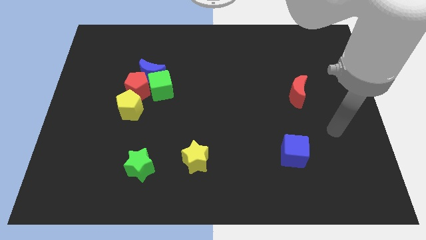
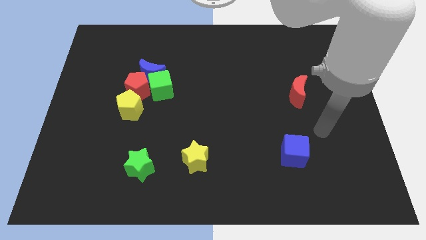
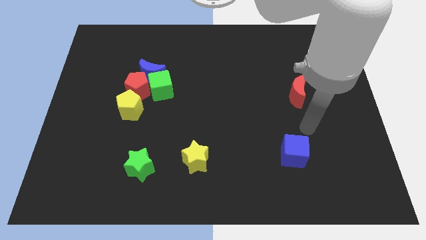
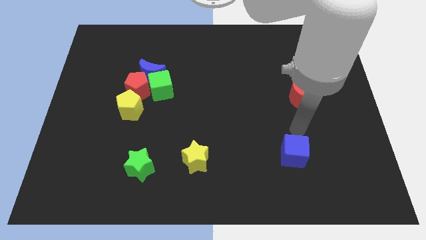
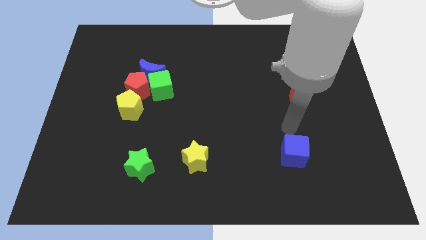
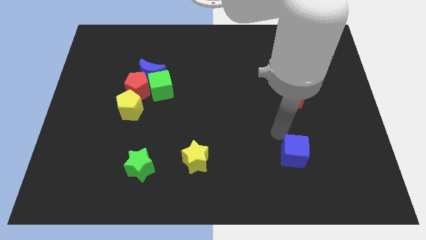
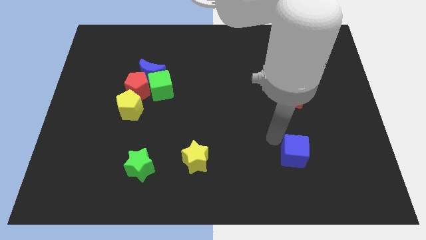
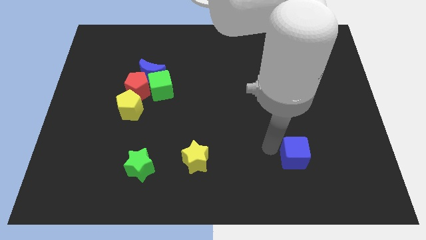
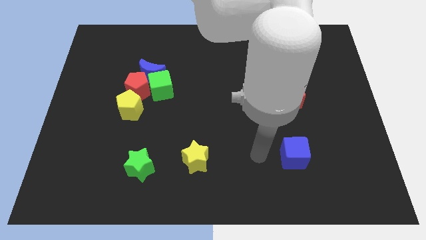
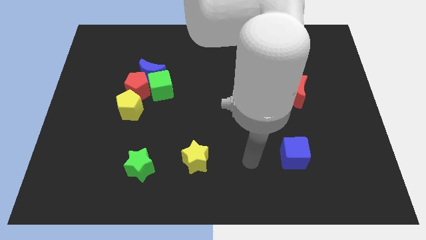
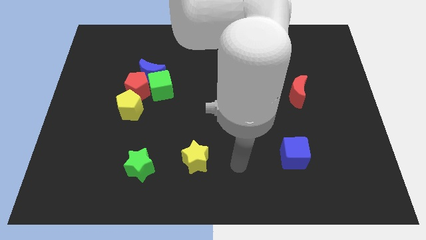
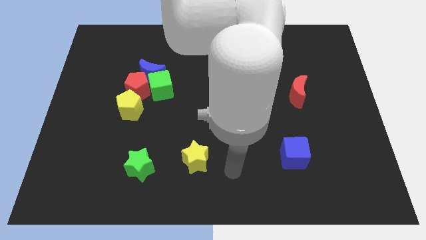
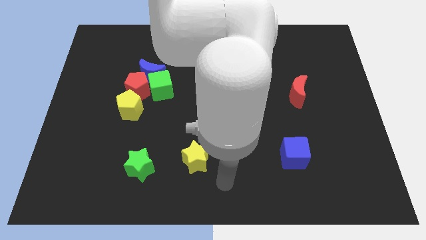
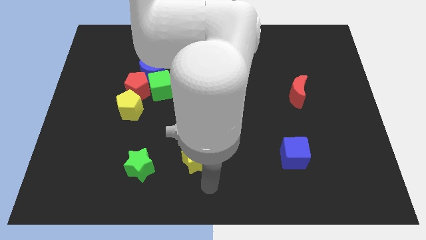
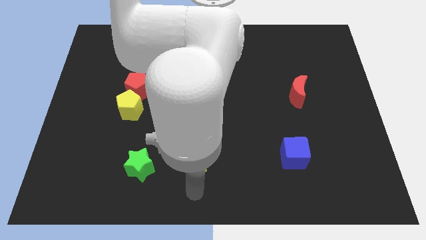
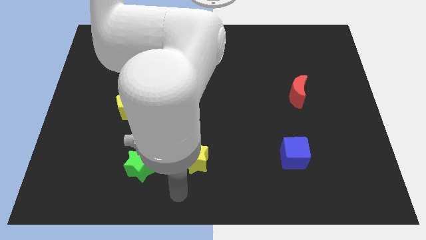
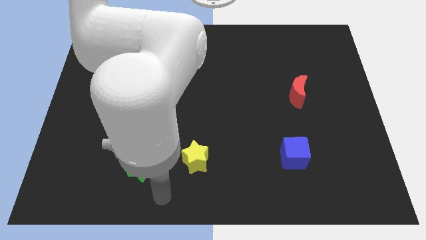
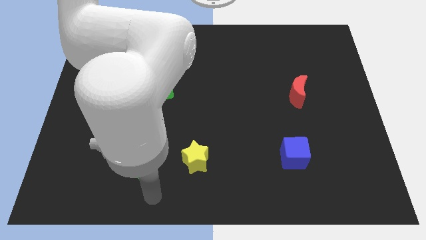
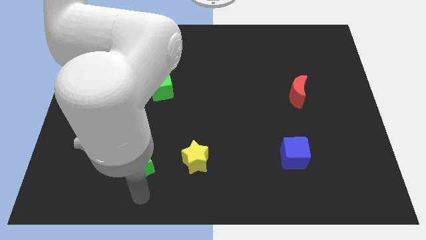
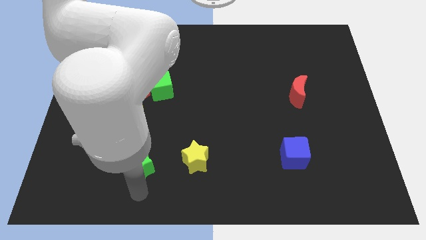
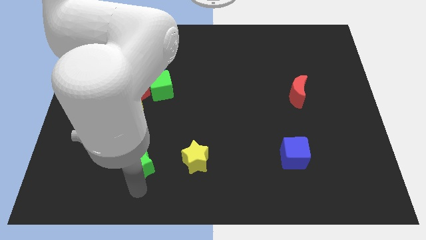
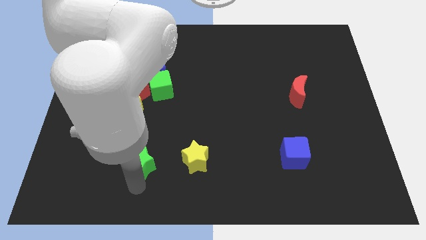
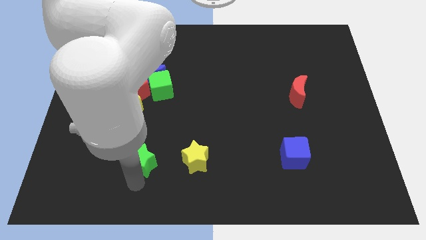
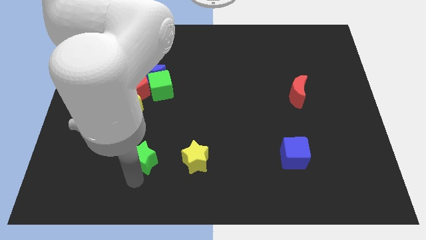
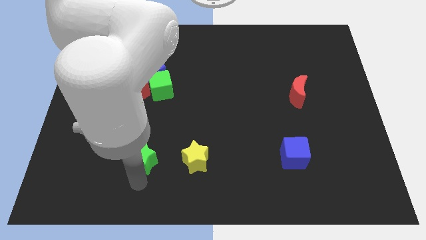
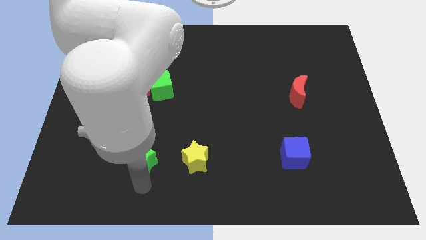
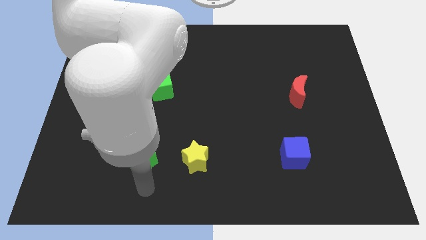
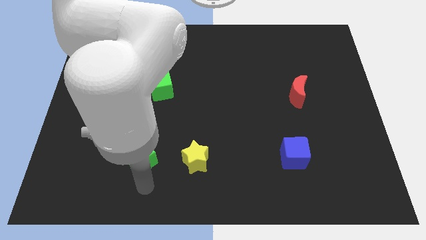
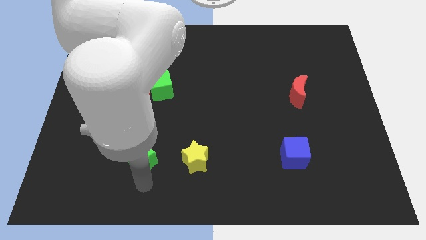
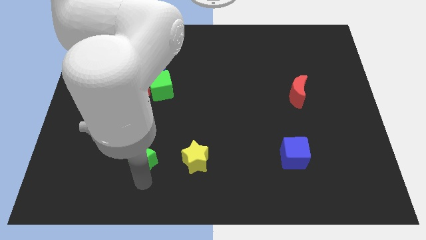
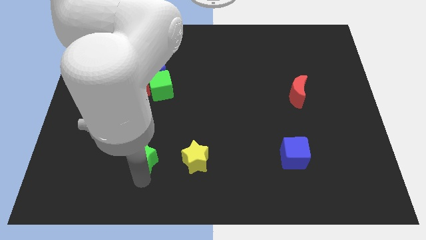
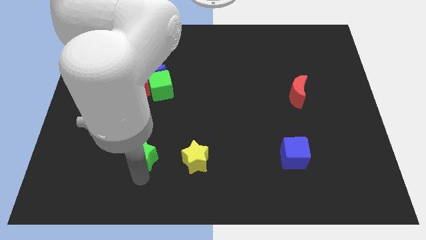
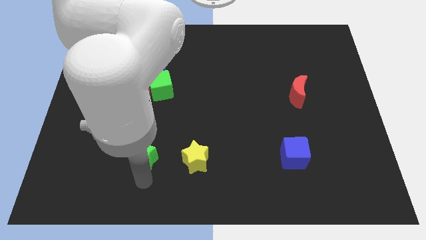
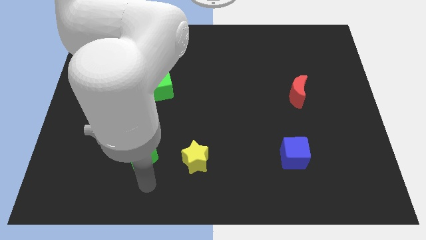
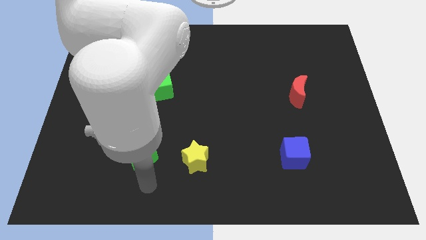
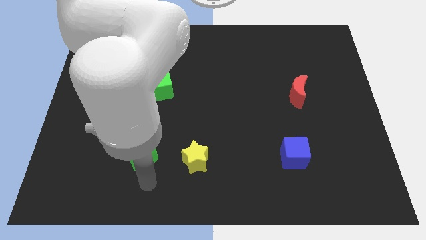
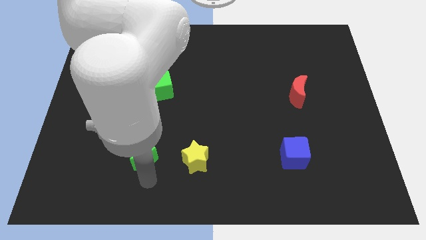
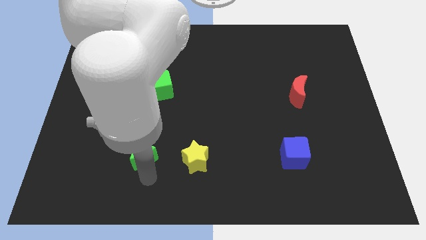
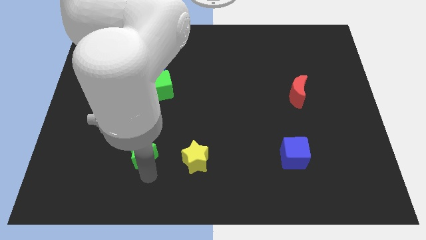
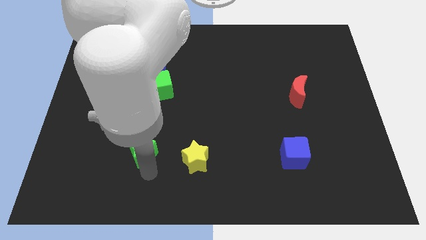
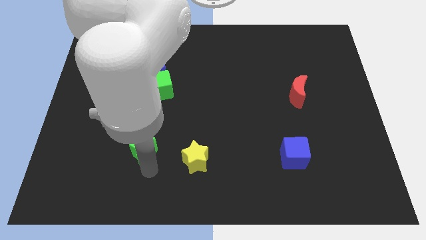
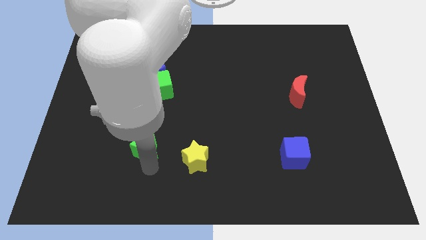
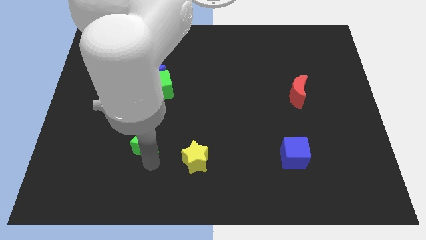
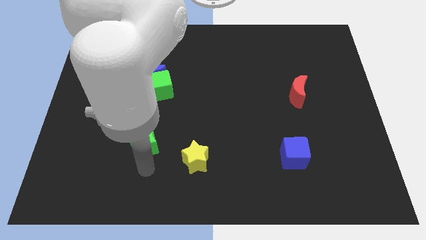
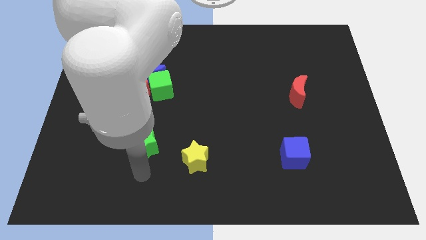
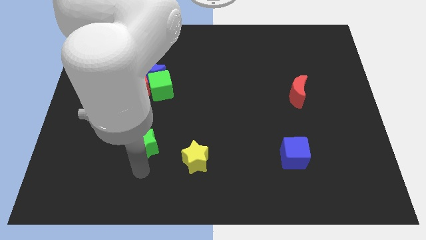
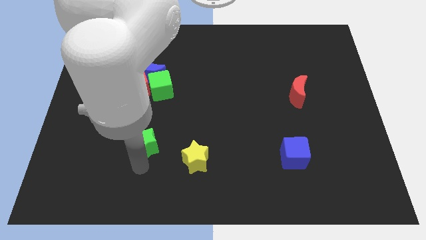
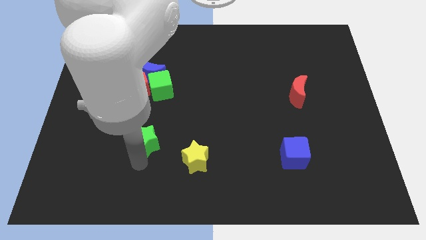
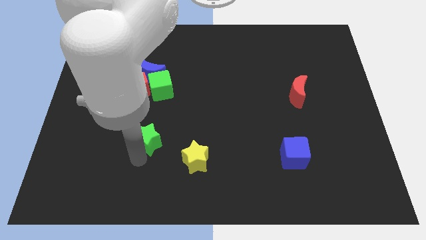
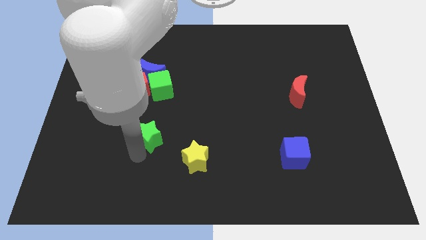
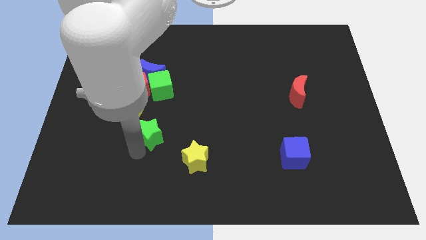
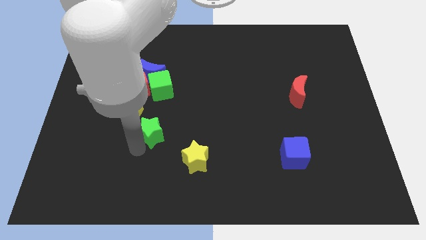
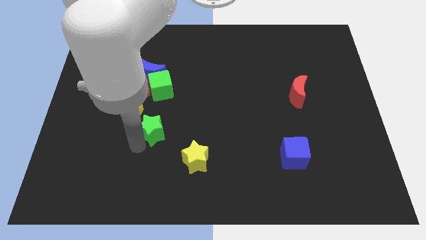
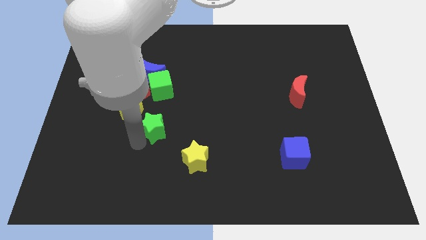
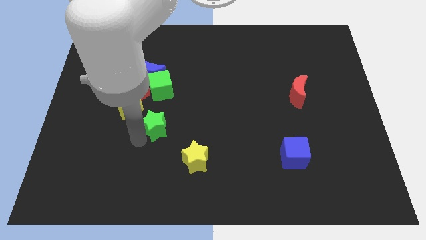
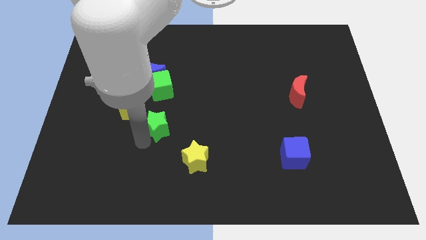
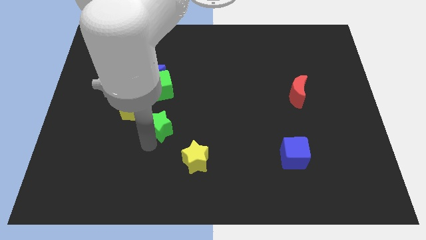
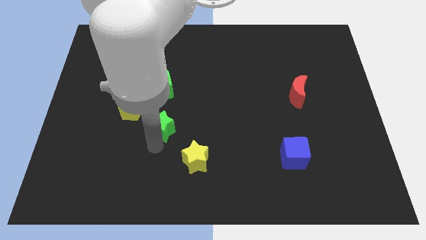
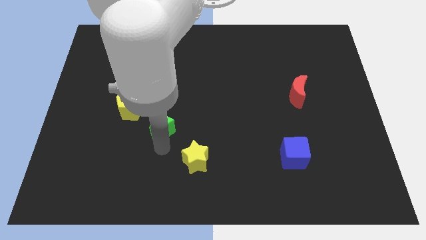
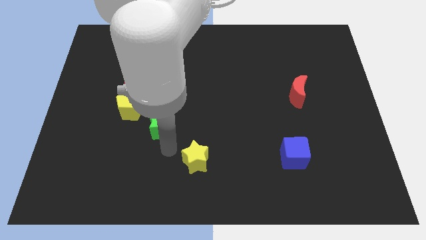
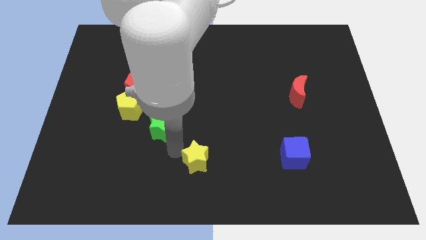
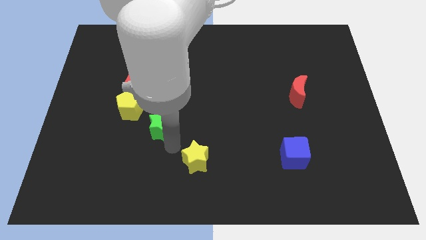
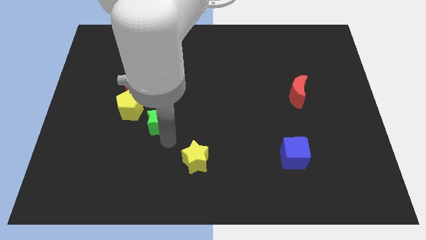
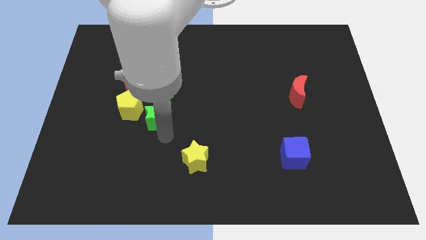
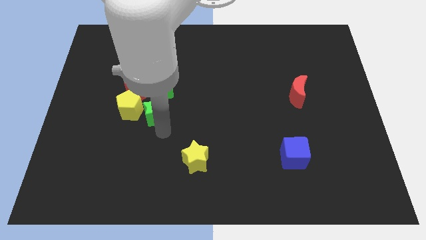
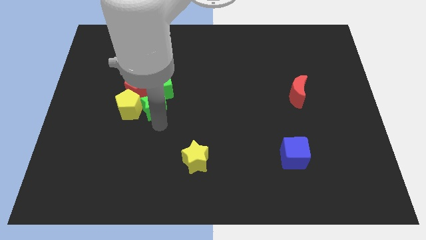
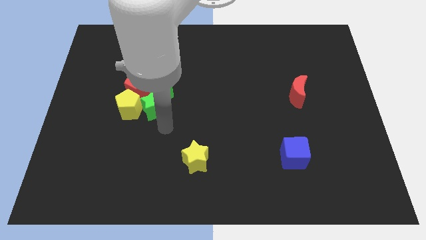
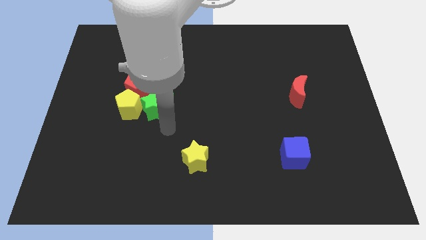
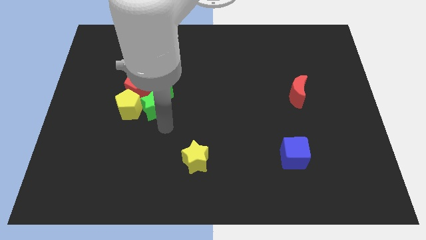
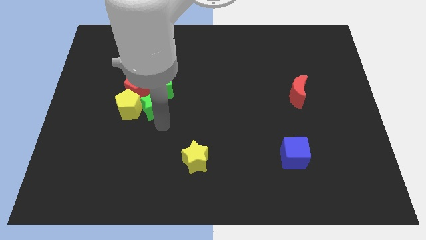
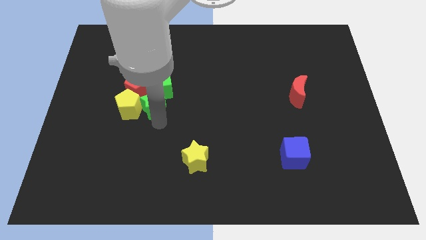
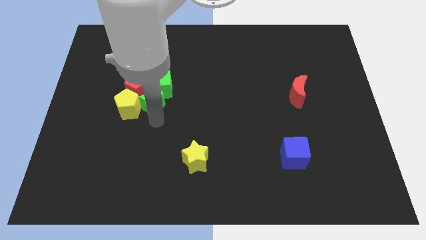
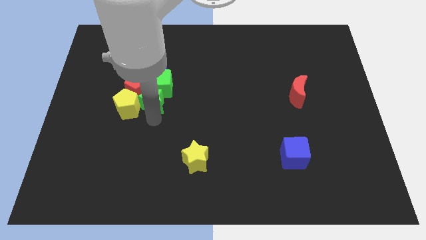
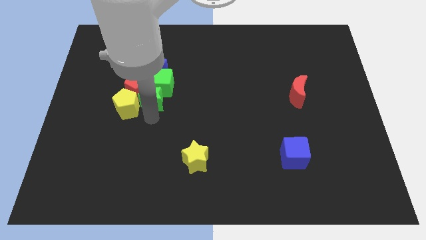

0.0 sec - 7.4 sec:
slide the green star close to the red pentagon

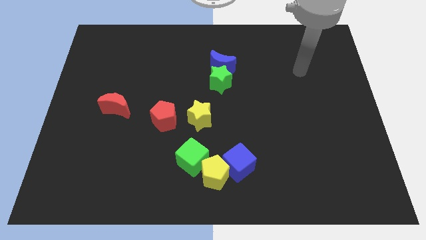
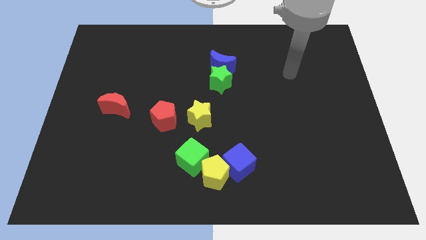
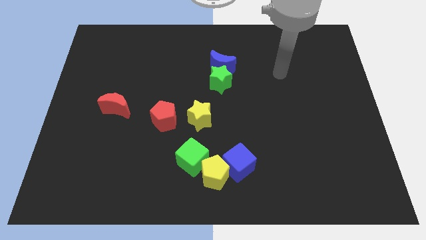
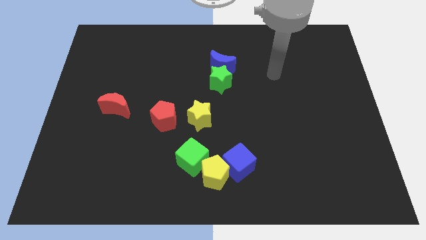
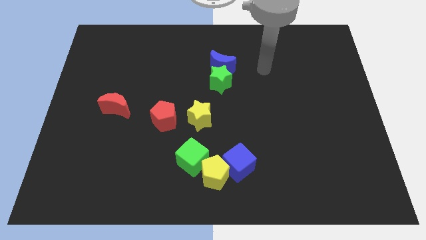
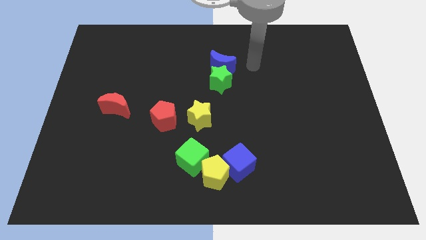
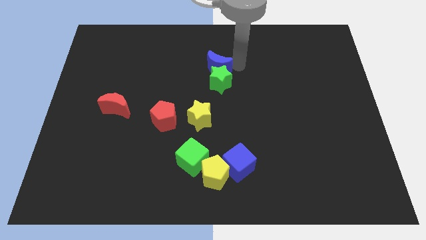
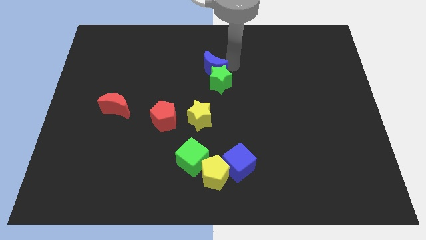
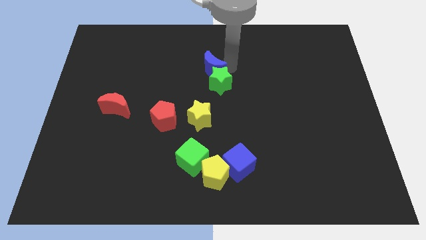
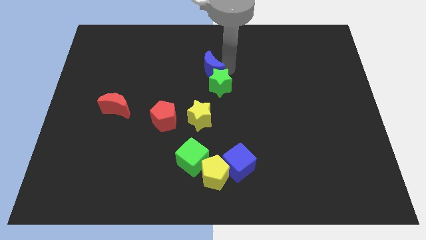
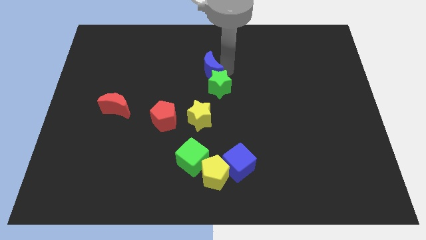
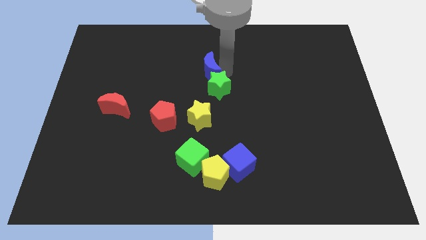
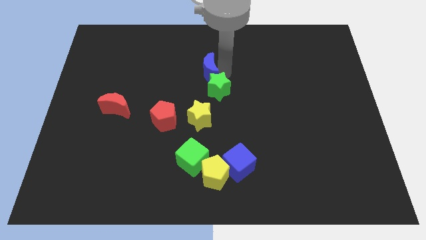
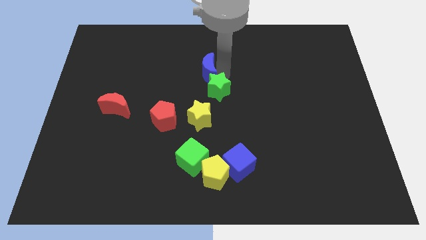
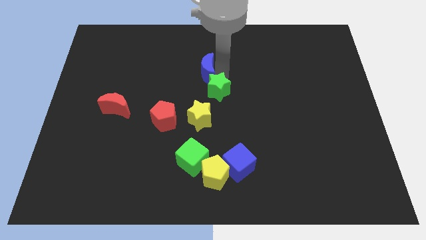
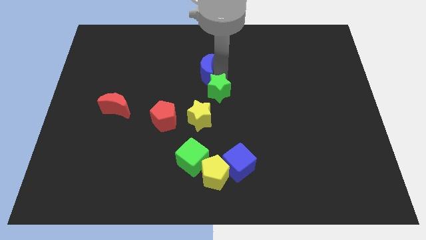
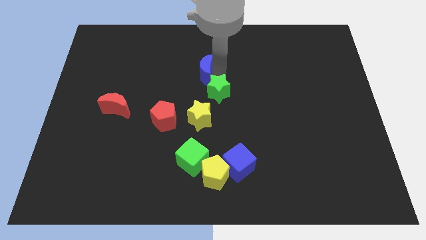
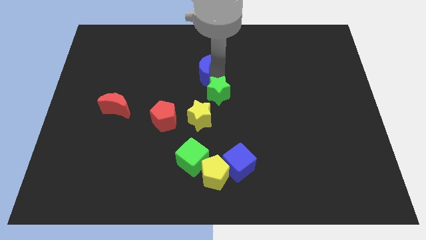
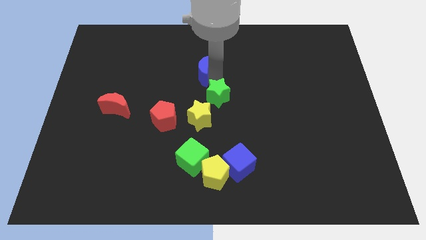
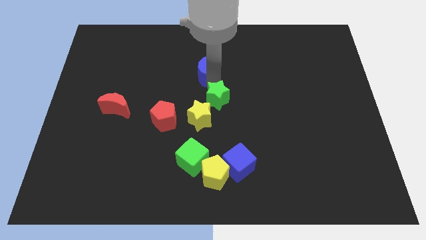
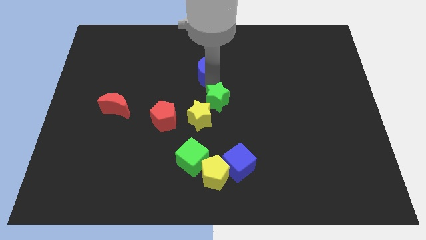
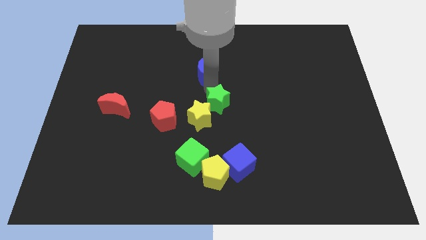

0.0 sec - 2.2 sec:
push the green star close to the yellow star
